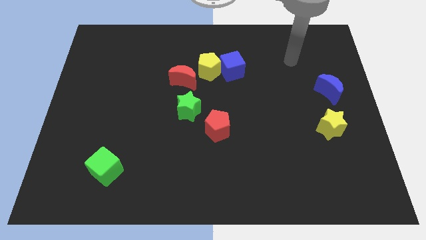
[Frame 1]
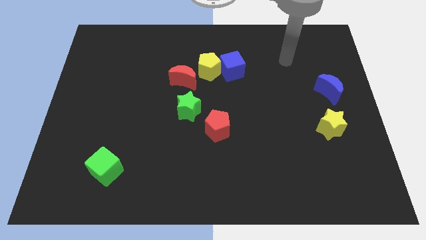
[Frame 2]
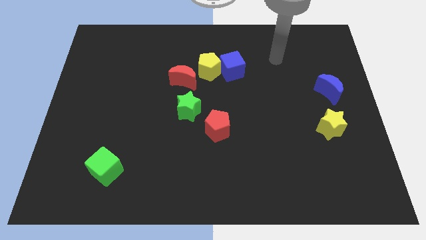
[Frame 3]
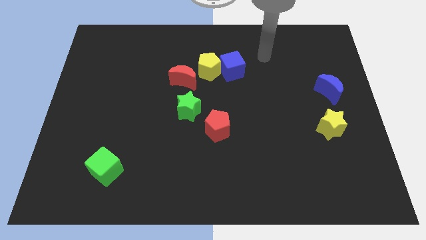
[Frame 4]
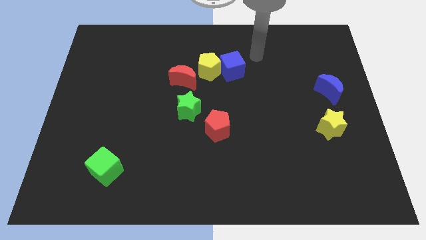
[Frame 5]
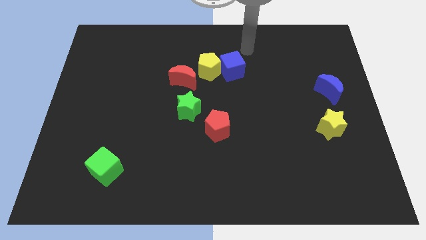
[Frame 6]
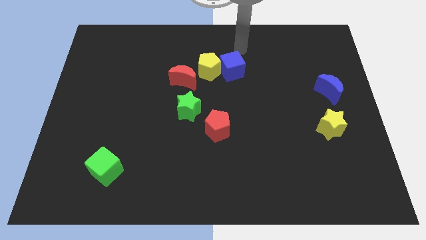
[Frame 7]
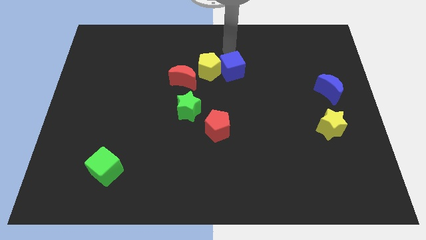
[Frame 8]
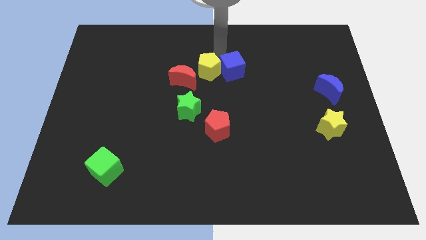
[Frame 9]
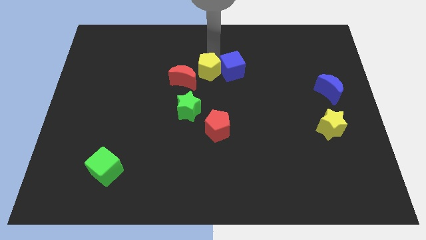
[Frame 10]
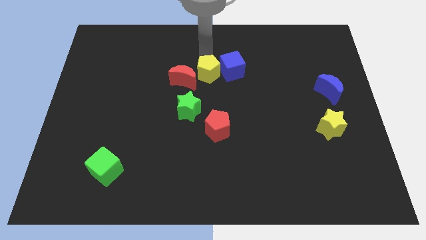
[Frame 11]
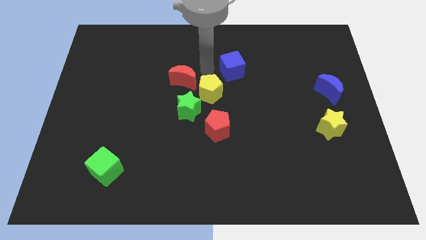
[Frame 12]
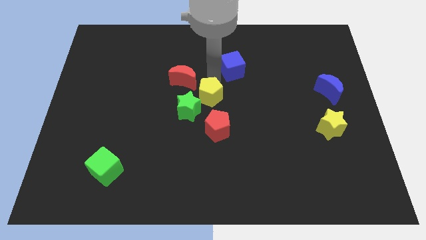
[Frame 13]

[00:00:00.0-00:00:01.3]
move the blue cube away from the yellow pentagon

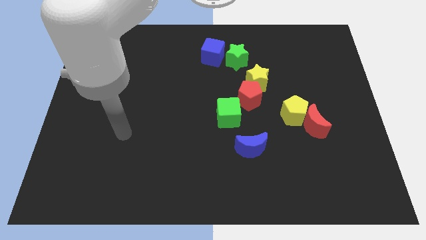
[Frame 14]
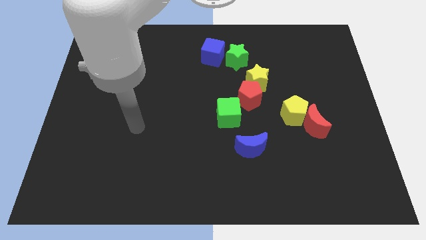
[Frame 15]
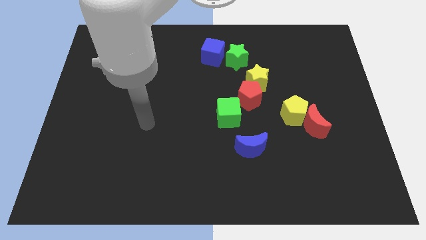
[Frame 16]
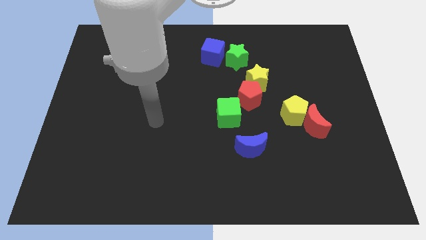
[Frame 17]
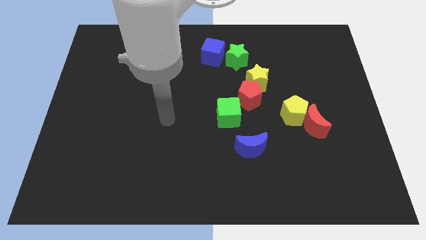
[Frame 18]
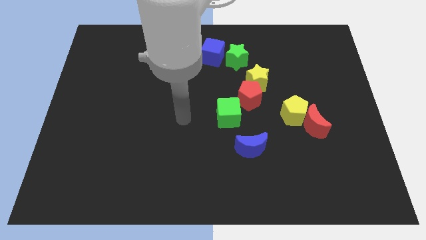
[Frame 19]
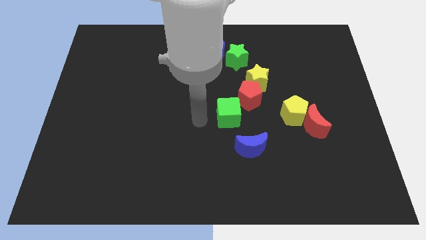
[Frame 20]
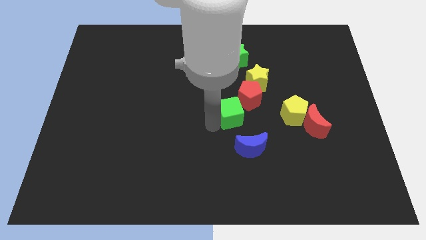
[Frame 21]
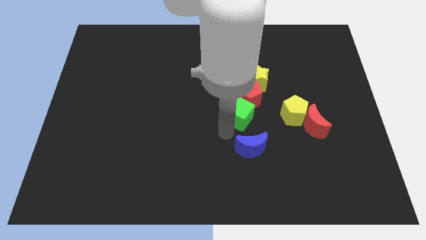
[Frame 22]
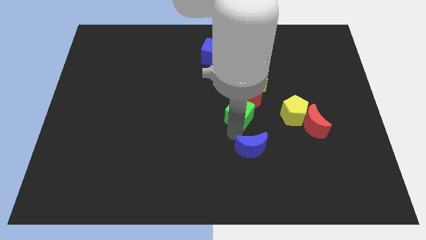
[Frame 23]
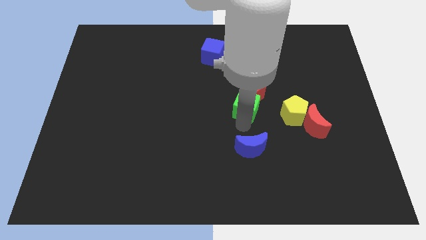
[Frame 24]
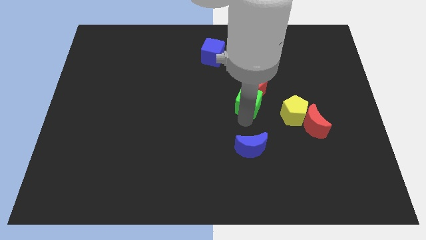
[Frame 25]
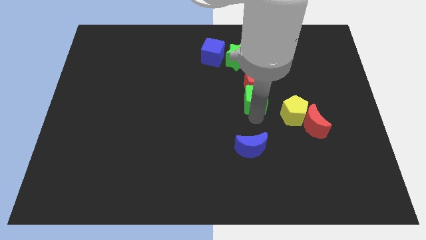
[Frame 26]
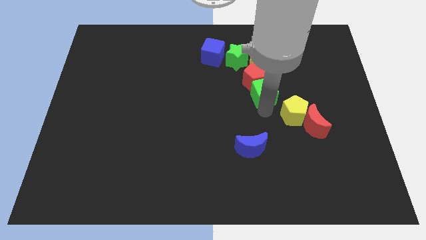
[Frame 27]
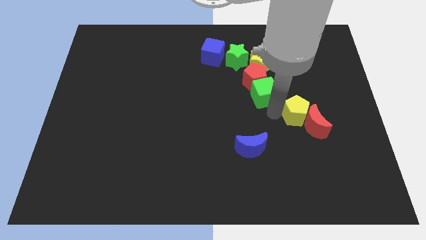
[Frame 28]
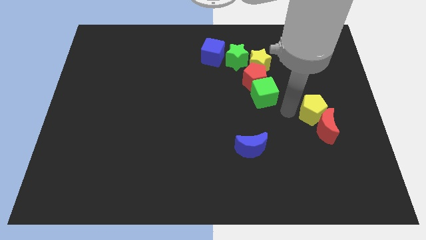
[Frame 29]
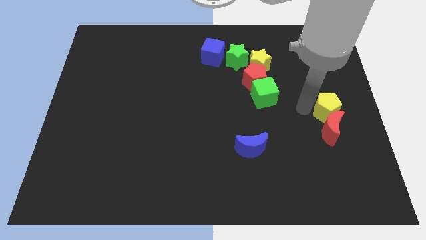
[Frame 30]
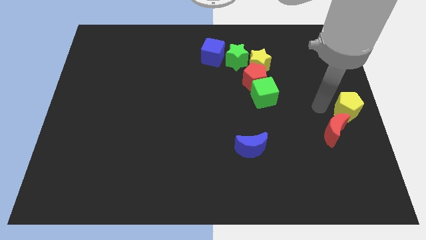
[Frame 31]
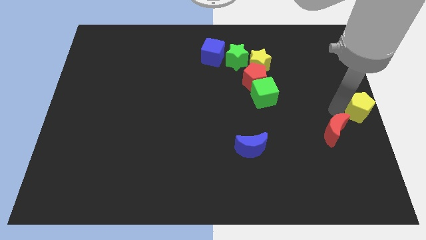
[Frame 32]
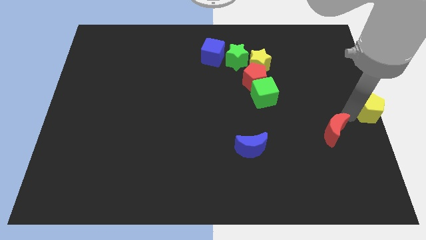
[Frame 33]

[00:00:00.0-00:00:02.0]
separate the red moon from the yellow pentagon

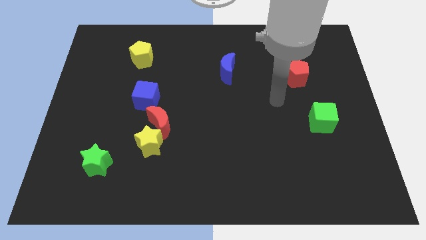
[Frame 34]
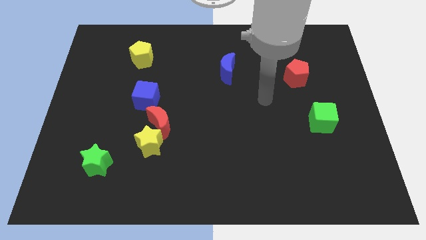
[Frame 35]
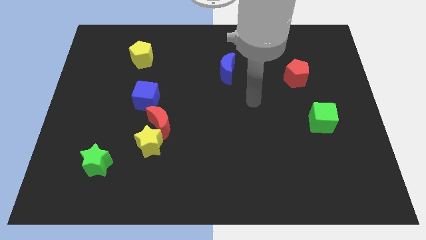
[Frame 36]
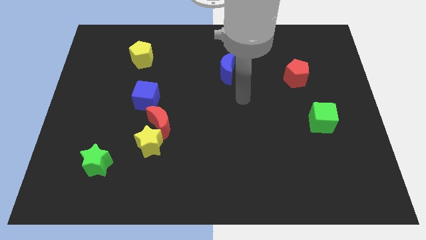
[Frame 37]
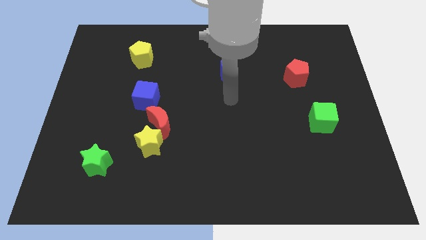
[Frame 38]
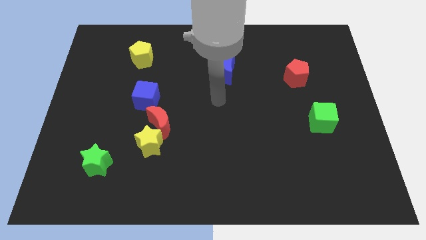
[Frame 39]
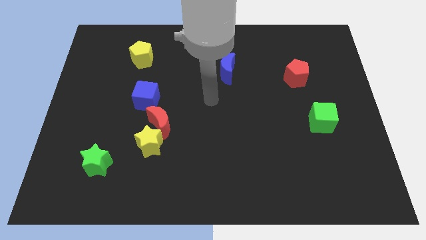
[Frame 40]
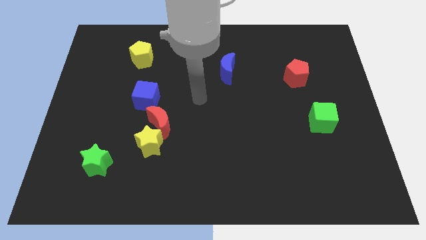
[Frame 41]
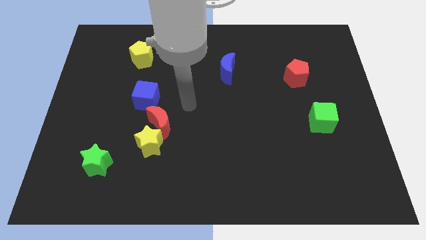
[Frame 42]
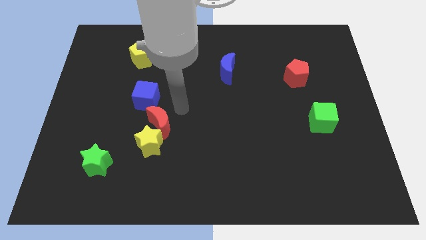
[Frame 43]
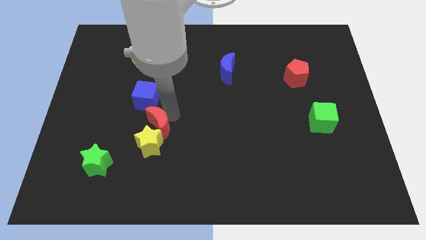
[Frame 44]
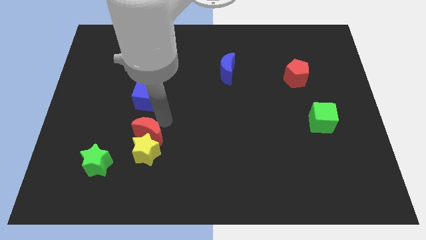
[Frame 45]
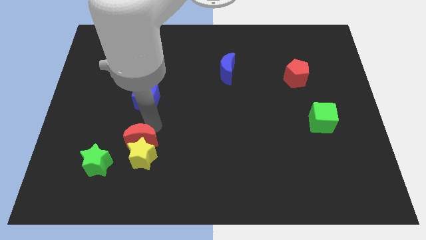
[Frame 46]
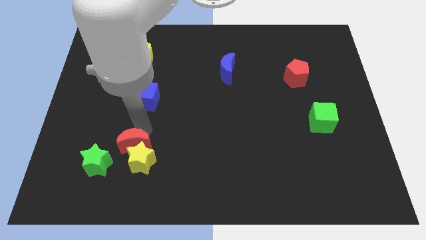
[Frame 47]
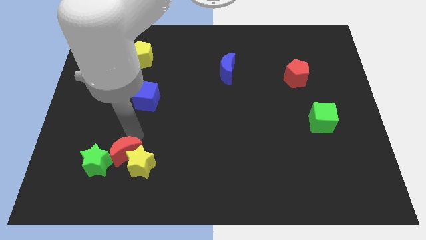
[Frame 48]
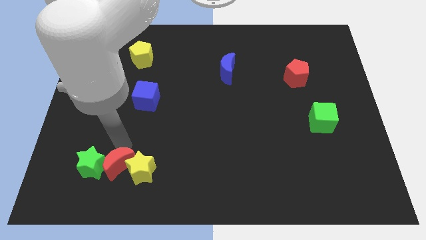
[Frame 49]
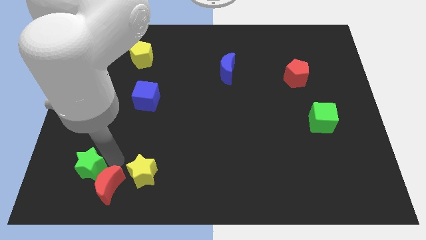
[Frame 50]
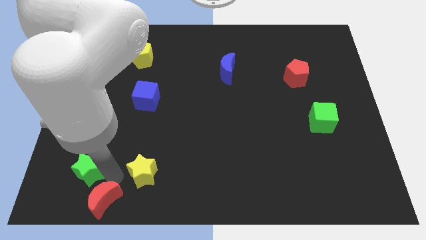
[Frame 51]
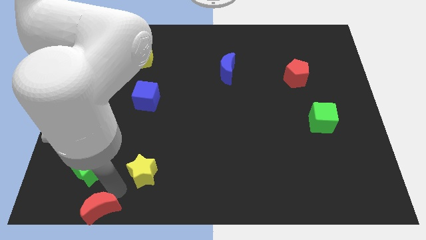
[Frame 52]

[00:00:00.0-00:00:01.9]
move the yellow star away from the red moon

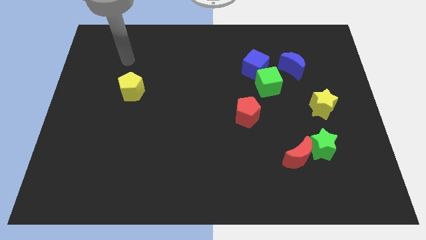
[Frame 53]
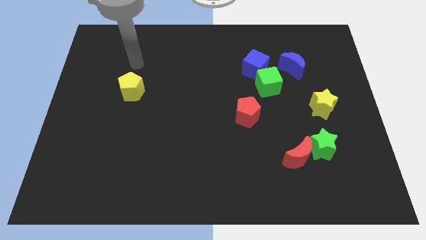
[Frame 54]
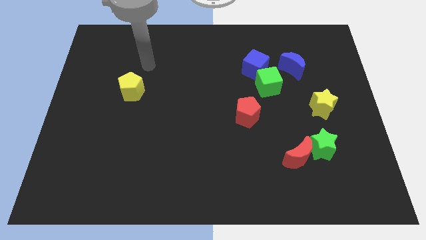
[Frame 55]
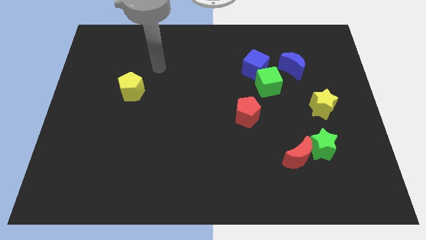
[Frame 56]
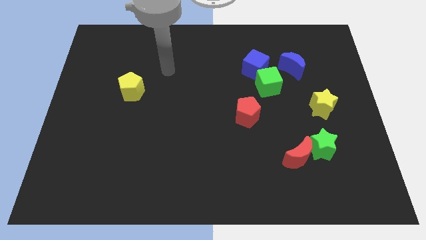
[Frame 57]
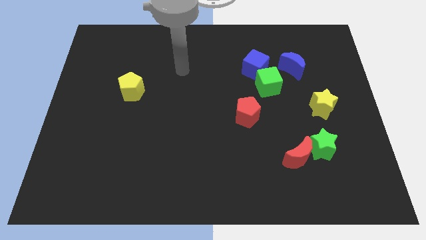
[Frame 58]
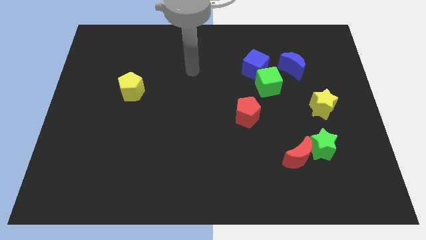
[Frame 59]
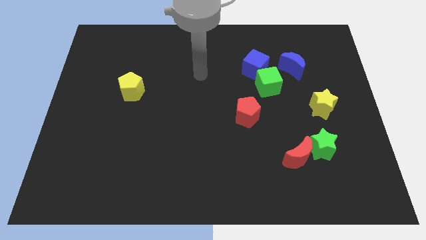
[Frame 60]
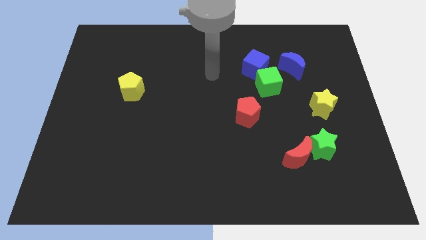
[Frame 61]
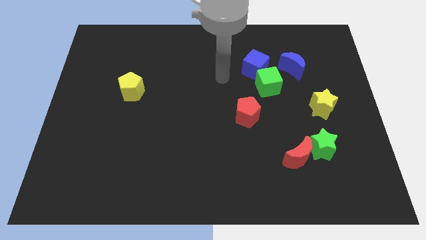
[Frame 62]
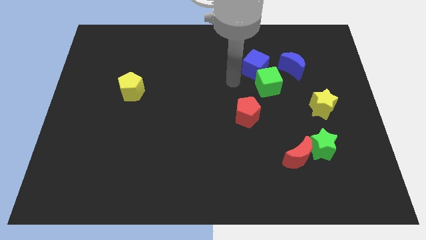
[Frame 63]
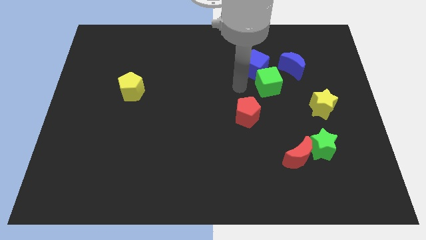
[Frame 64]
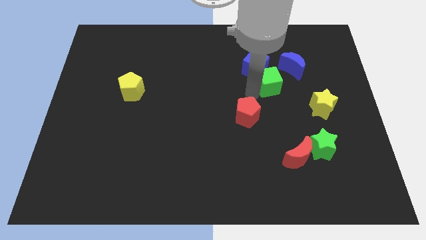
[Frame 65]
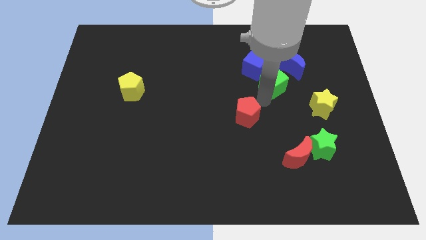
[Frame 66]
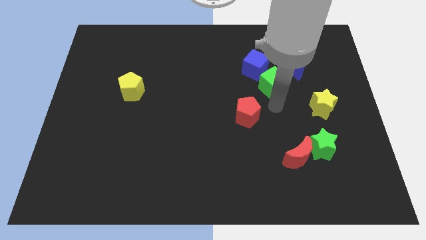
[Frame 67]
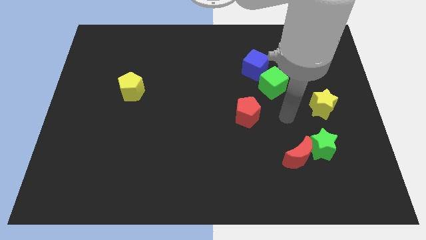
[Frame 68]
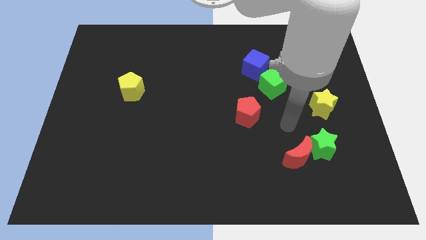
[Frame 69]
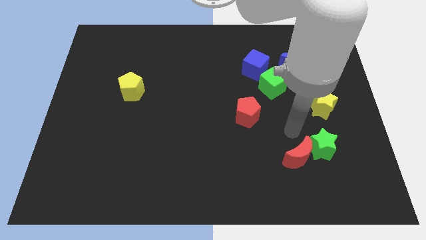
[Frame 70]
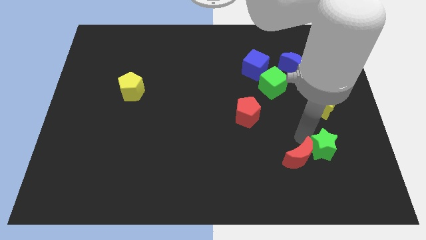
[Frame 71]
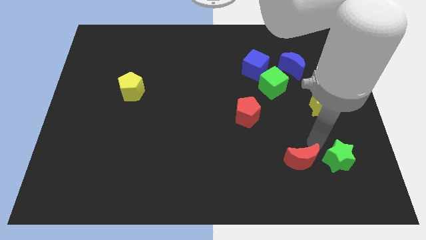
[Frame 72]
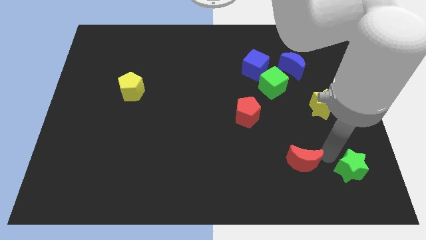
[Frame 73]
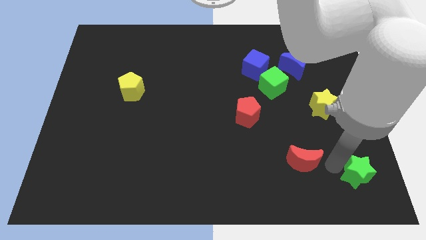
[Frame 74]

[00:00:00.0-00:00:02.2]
separate the red moon from the green star

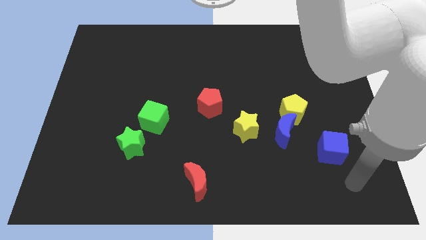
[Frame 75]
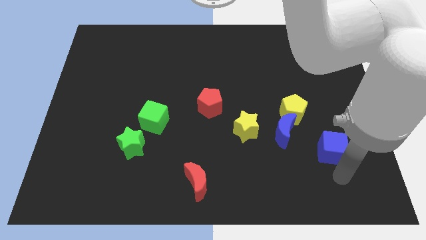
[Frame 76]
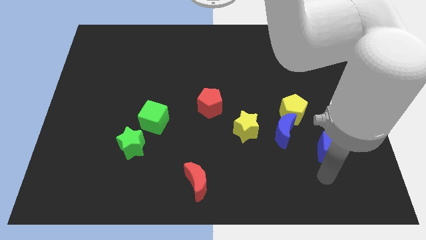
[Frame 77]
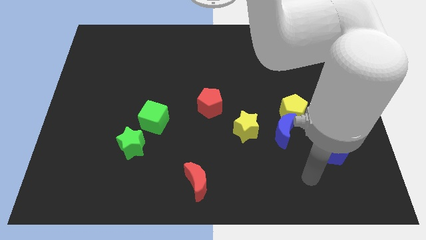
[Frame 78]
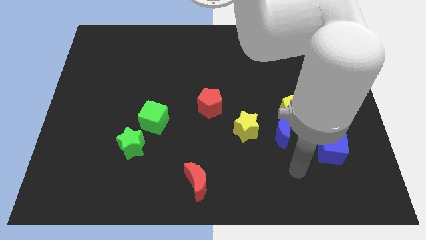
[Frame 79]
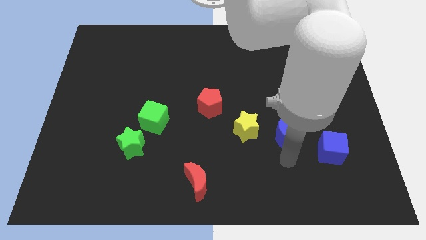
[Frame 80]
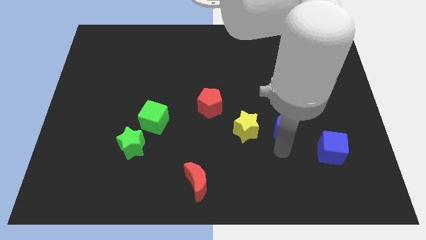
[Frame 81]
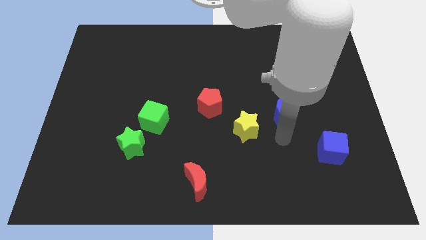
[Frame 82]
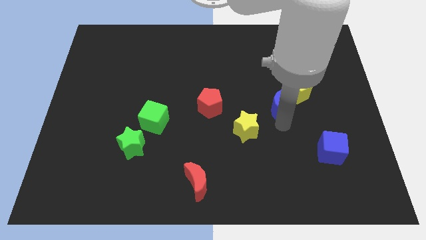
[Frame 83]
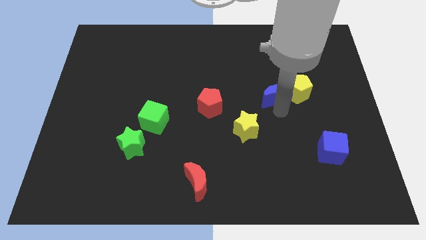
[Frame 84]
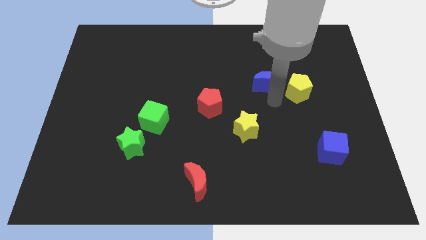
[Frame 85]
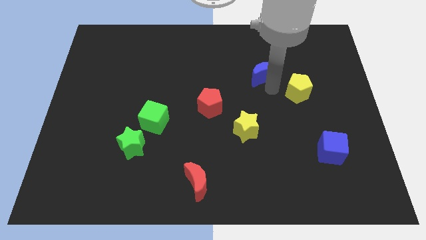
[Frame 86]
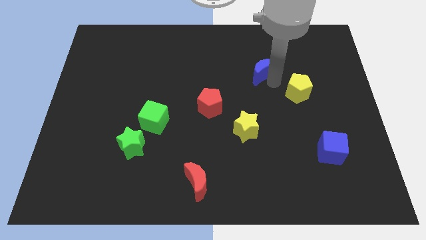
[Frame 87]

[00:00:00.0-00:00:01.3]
move the yellow pentagon away from the blue moon

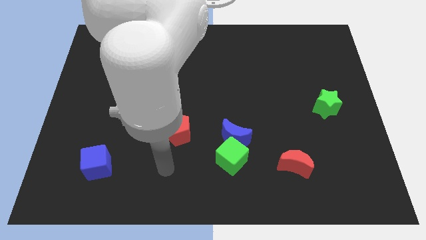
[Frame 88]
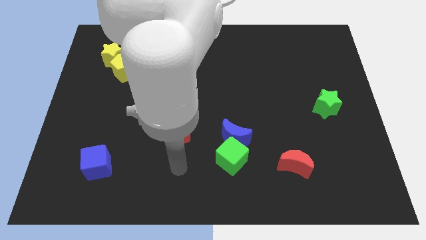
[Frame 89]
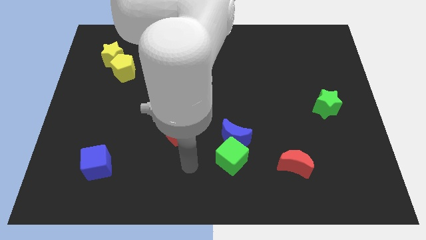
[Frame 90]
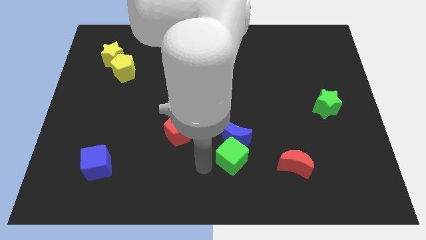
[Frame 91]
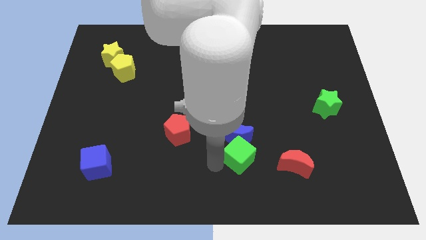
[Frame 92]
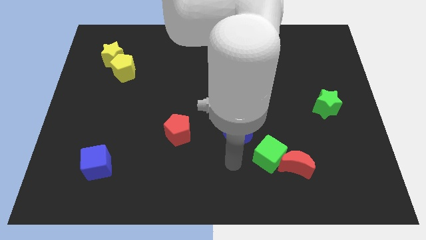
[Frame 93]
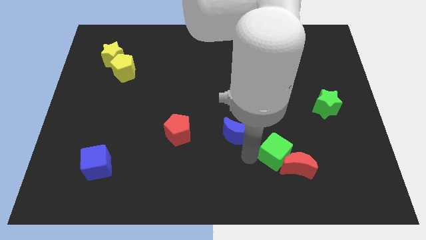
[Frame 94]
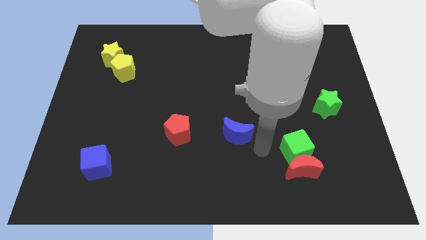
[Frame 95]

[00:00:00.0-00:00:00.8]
pull the blue moon apart from the green cube
